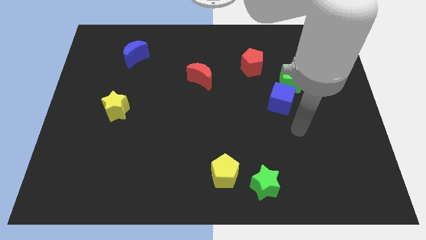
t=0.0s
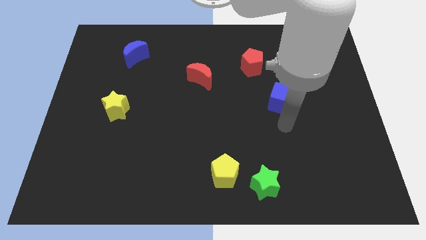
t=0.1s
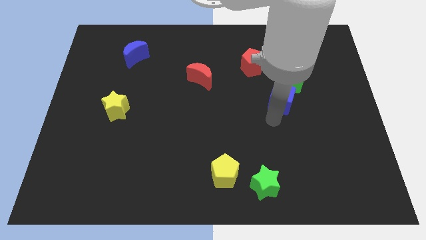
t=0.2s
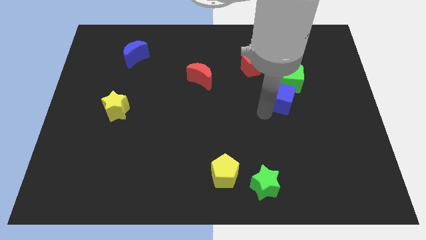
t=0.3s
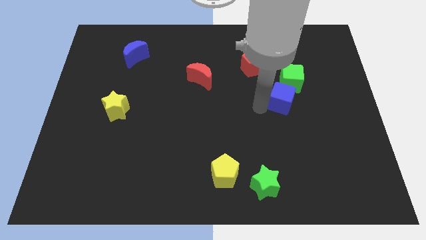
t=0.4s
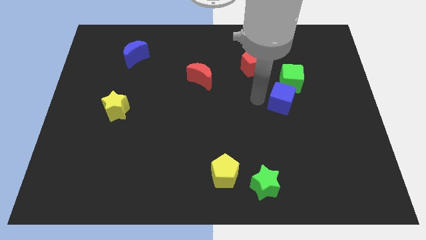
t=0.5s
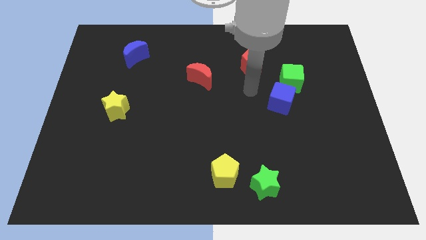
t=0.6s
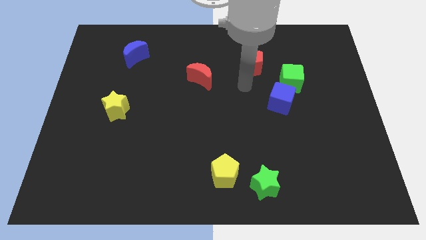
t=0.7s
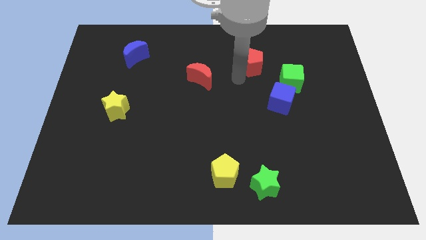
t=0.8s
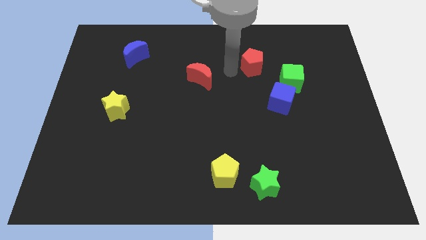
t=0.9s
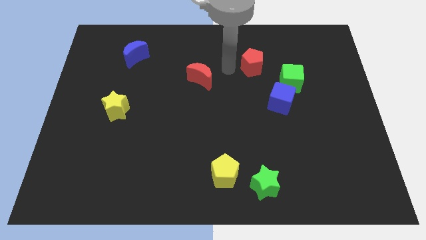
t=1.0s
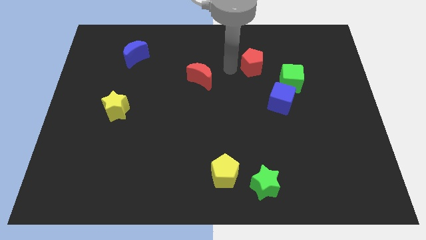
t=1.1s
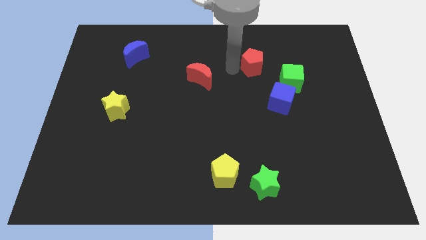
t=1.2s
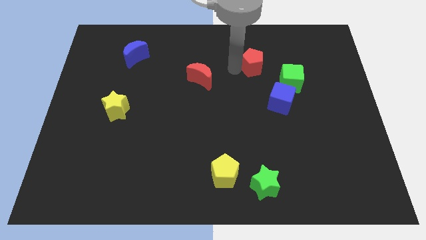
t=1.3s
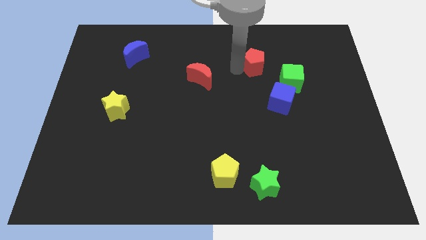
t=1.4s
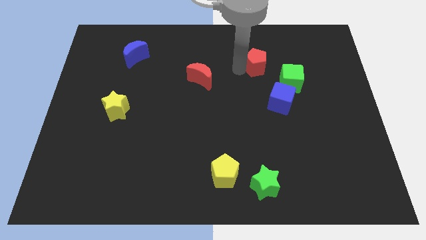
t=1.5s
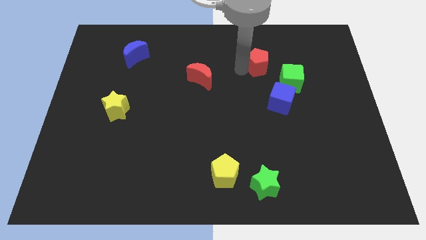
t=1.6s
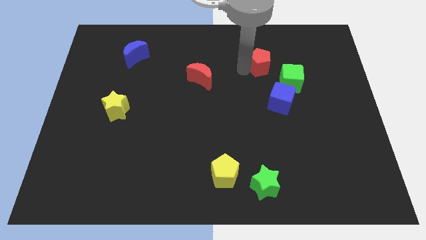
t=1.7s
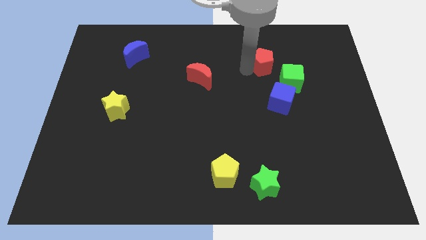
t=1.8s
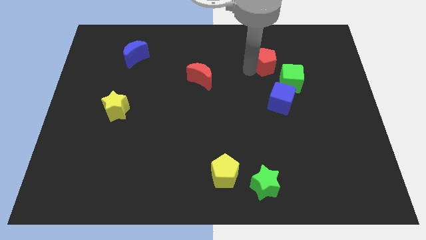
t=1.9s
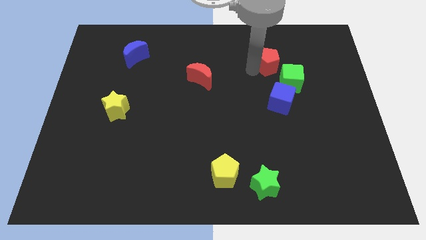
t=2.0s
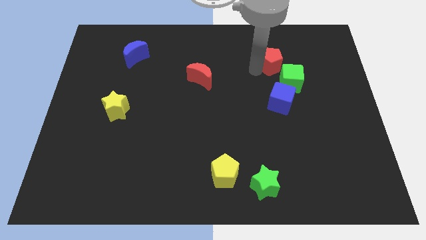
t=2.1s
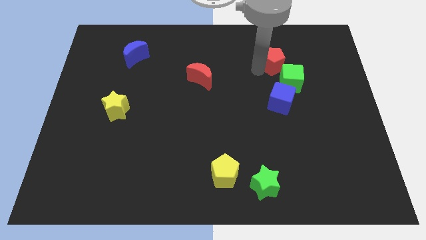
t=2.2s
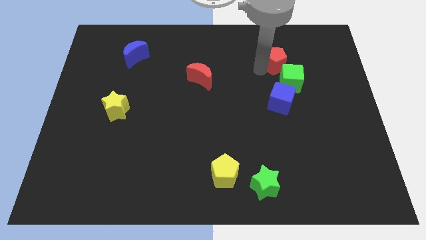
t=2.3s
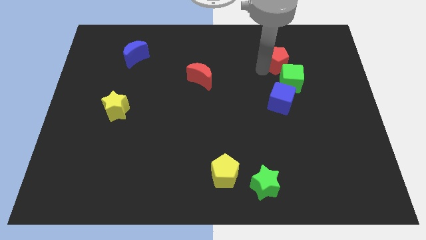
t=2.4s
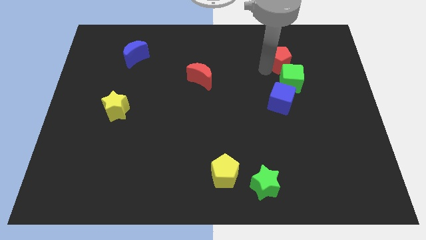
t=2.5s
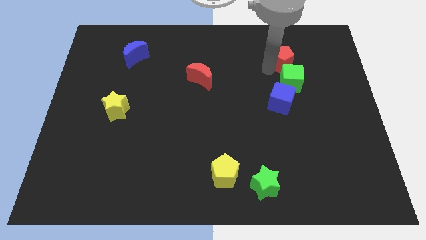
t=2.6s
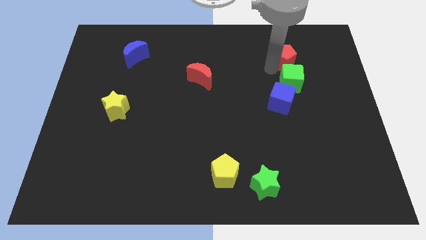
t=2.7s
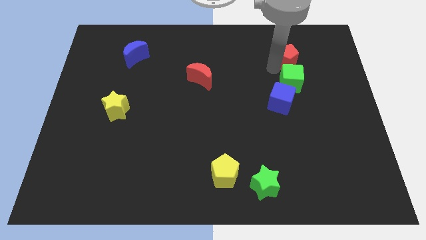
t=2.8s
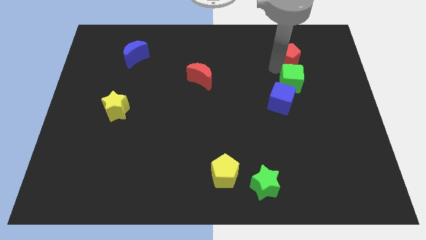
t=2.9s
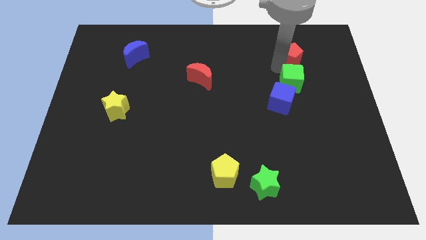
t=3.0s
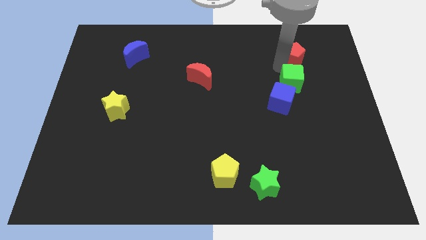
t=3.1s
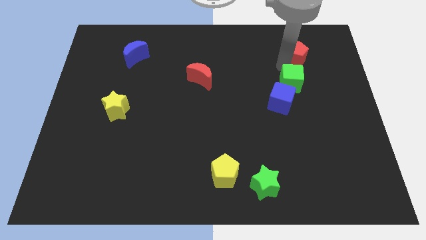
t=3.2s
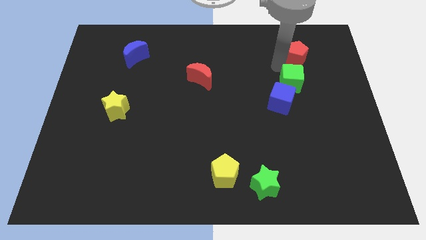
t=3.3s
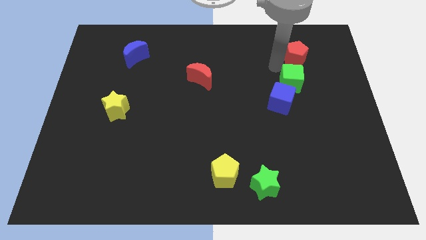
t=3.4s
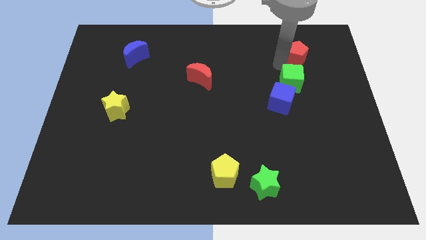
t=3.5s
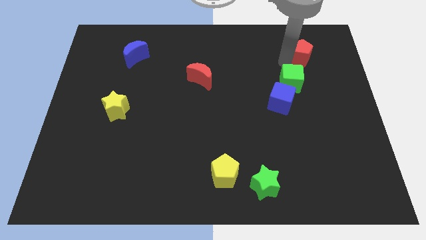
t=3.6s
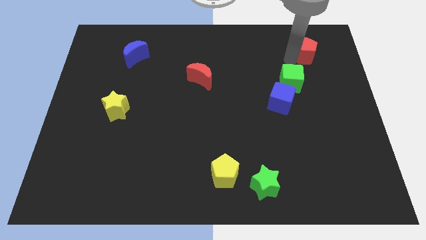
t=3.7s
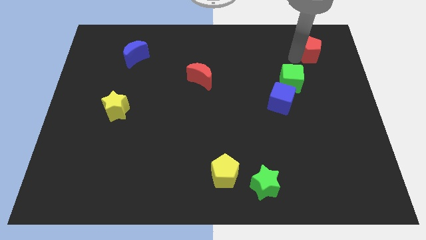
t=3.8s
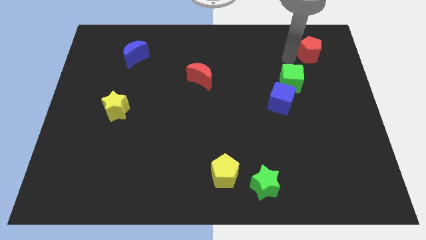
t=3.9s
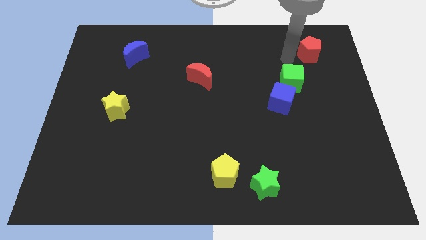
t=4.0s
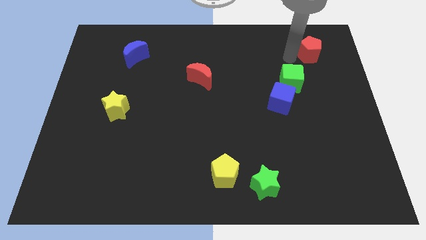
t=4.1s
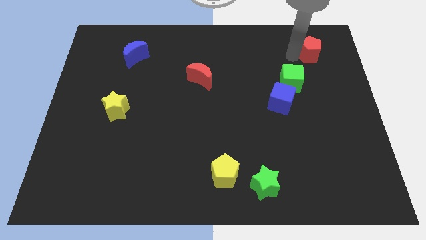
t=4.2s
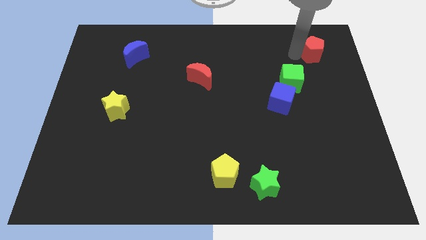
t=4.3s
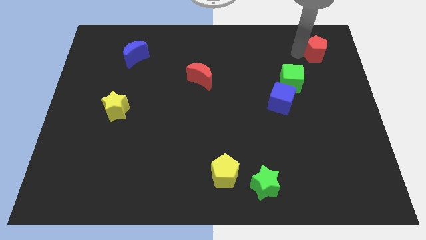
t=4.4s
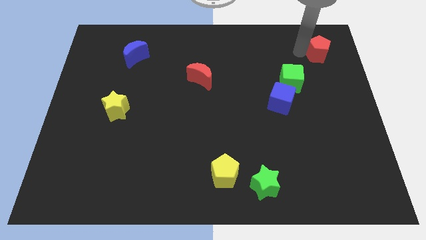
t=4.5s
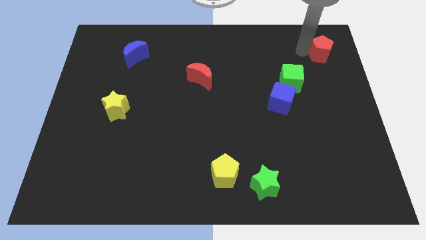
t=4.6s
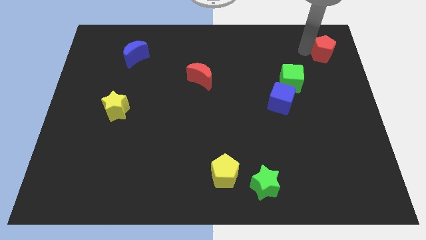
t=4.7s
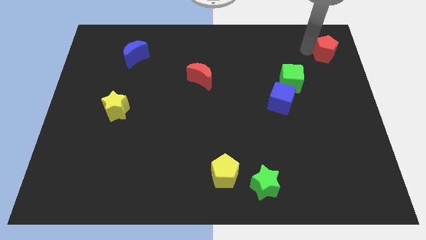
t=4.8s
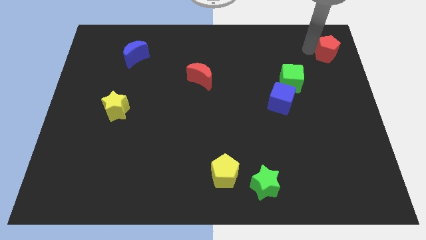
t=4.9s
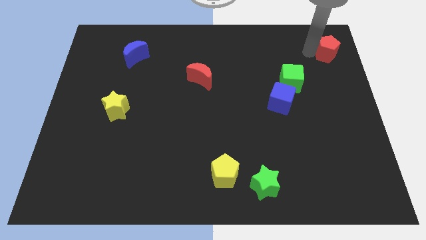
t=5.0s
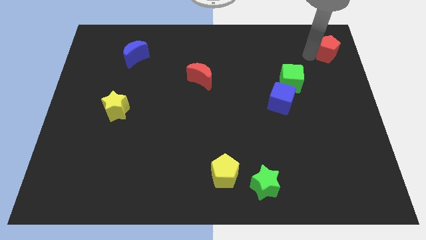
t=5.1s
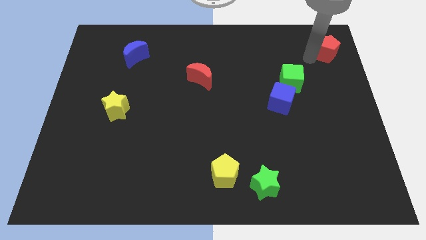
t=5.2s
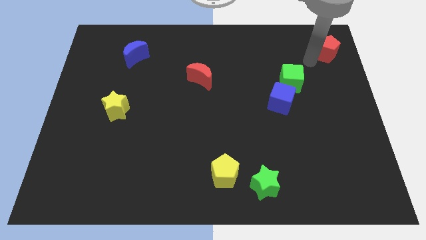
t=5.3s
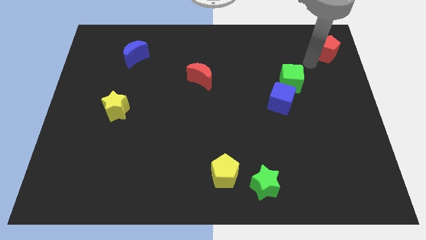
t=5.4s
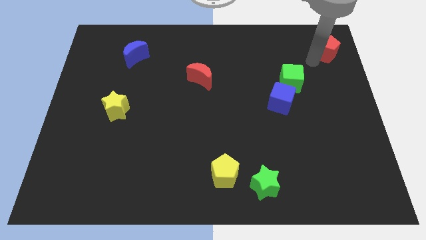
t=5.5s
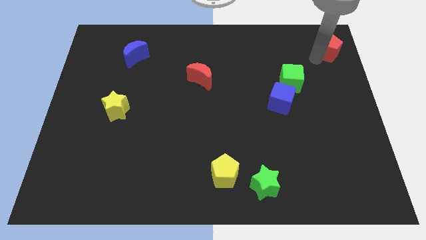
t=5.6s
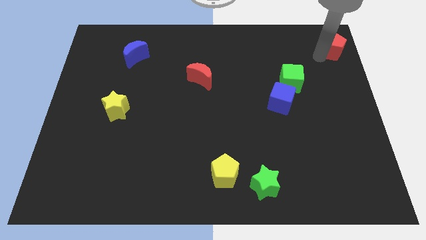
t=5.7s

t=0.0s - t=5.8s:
slide the red pentagon to the top right corner

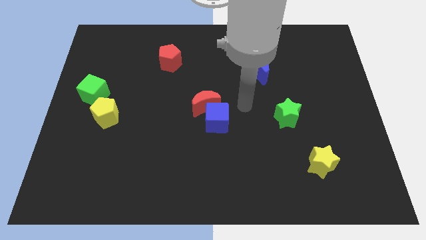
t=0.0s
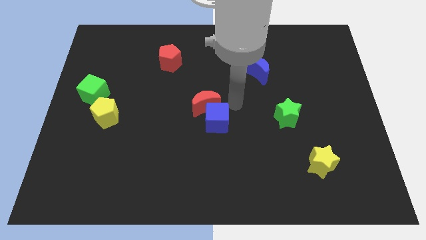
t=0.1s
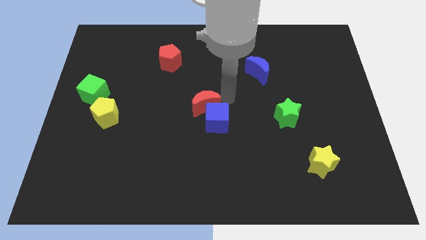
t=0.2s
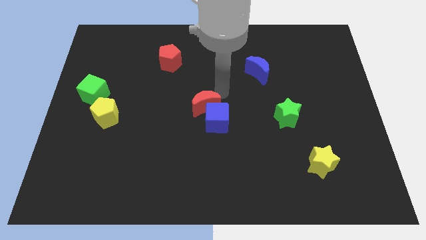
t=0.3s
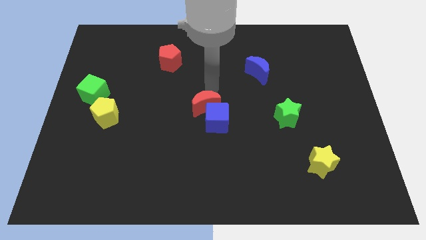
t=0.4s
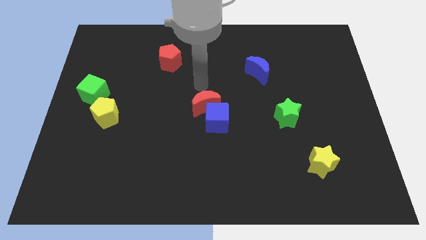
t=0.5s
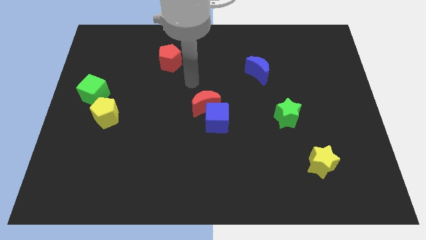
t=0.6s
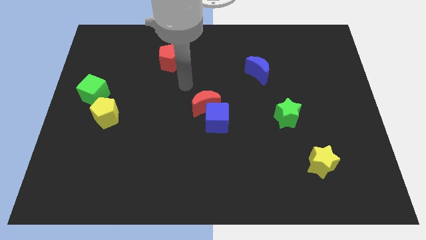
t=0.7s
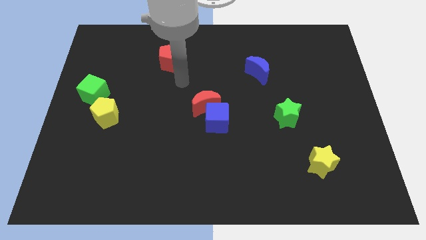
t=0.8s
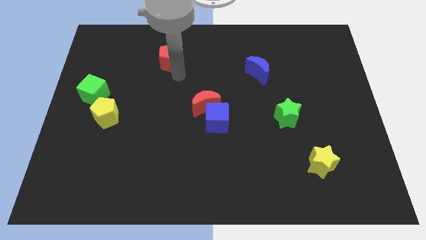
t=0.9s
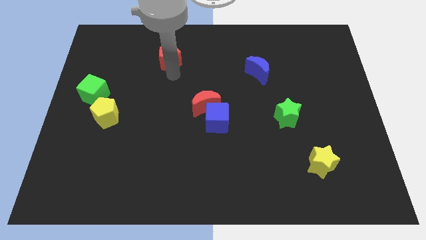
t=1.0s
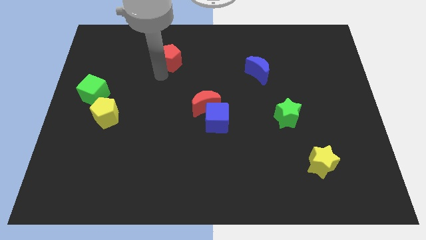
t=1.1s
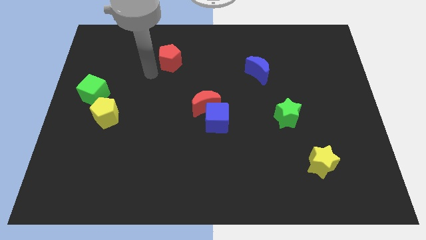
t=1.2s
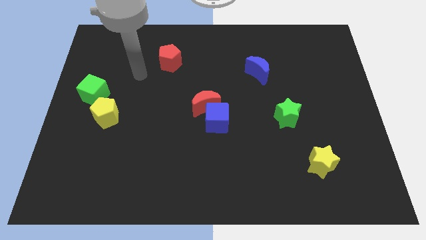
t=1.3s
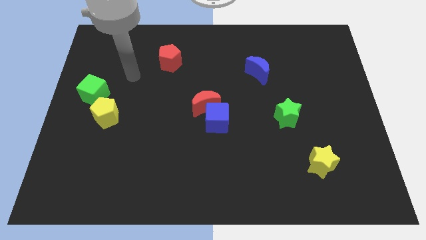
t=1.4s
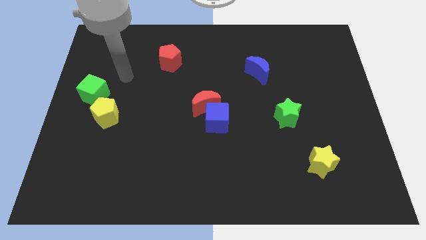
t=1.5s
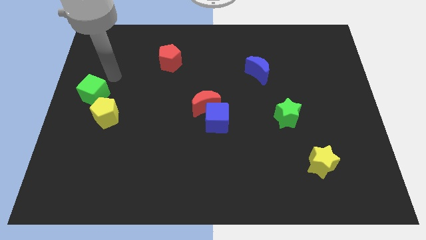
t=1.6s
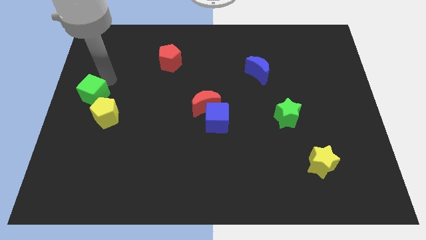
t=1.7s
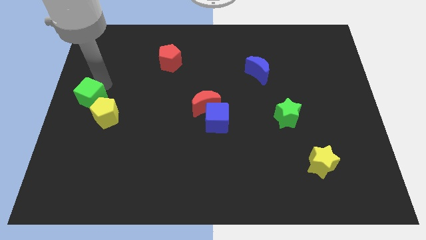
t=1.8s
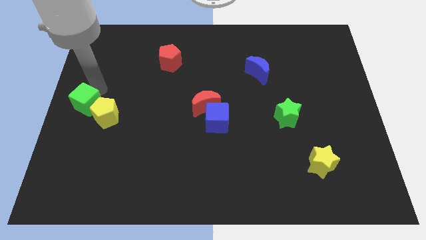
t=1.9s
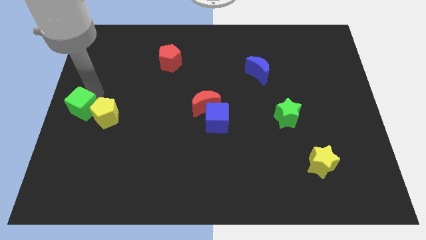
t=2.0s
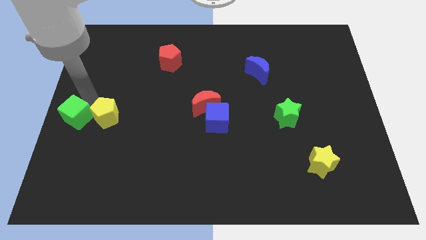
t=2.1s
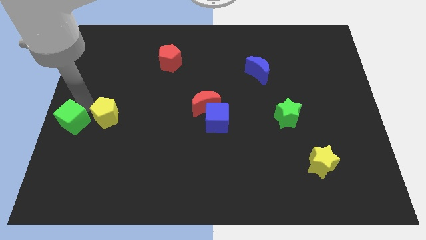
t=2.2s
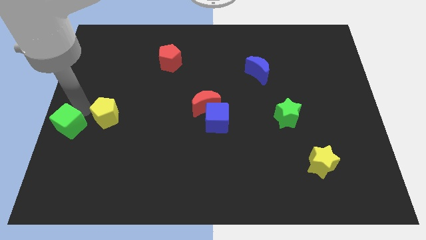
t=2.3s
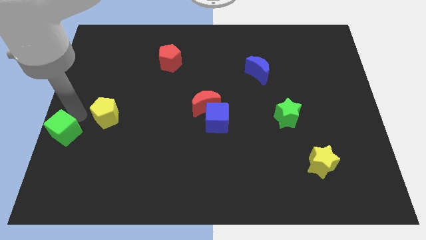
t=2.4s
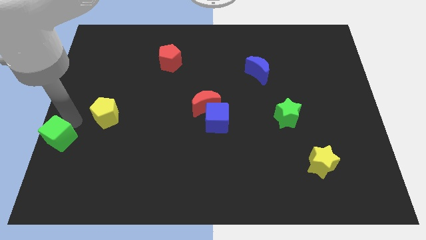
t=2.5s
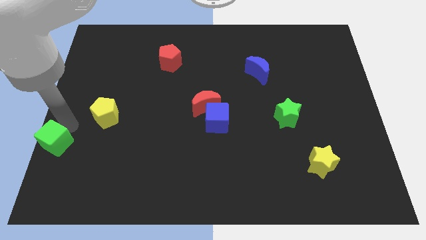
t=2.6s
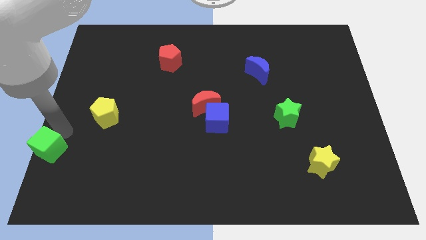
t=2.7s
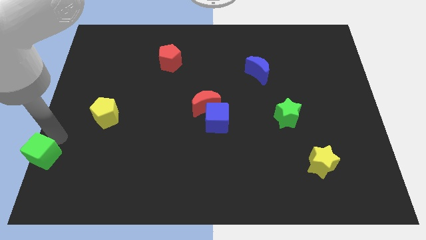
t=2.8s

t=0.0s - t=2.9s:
move the green cube to the lower left corner
